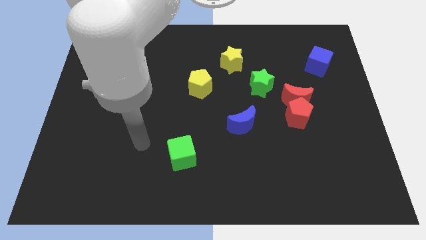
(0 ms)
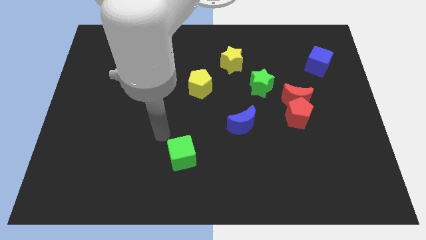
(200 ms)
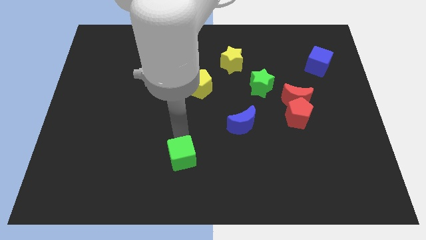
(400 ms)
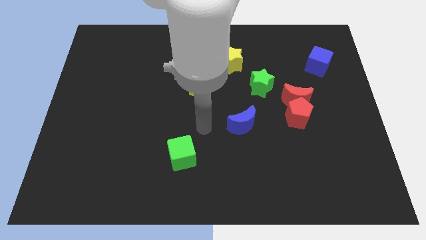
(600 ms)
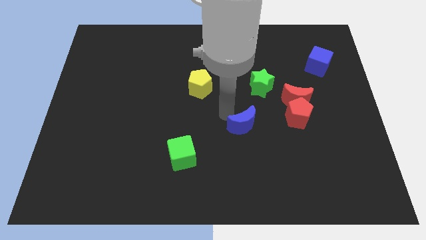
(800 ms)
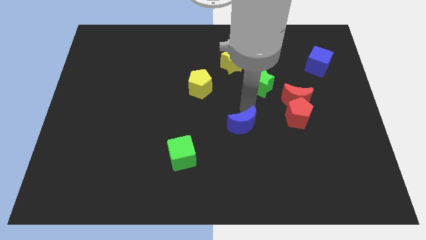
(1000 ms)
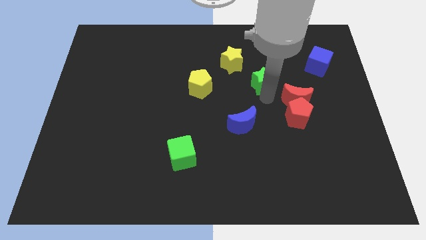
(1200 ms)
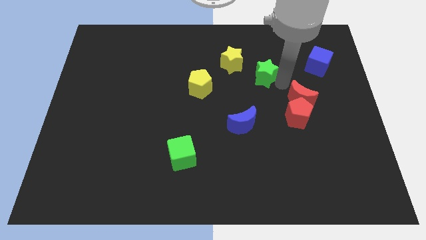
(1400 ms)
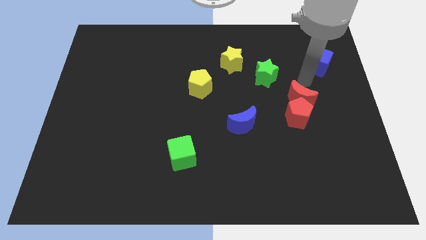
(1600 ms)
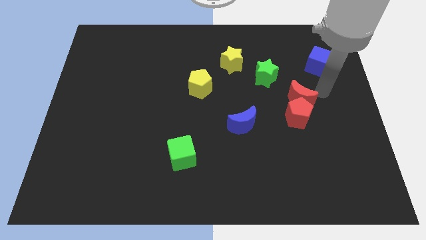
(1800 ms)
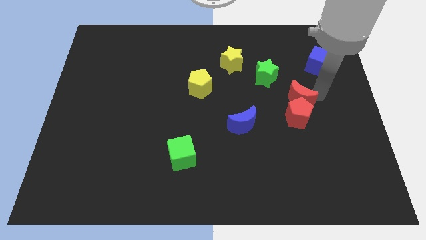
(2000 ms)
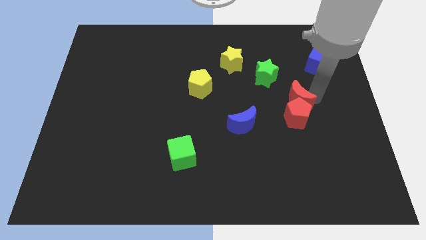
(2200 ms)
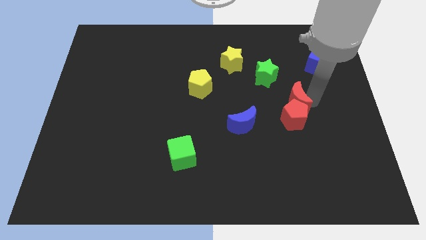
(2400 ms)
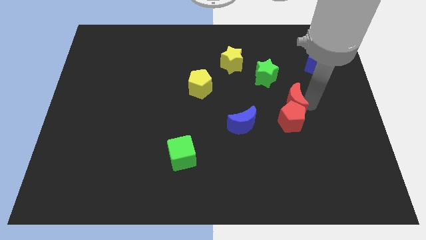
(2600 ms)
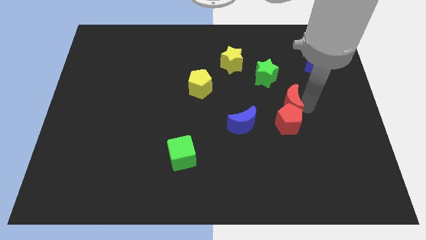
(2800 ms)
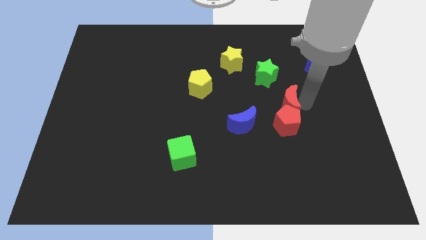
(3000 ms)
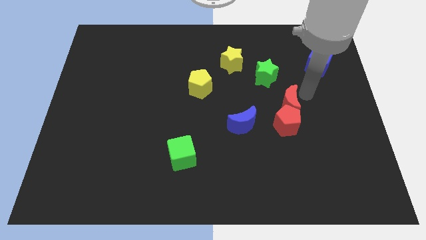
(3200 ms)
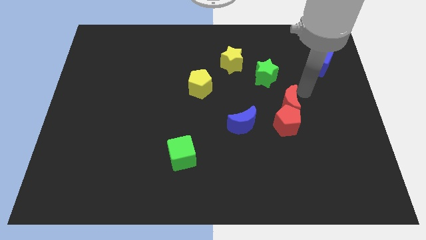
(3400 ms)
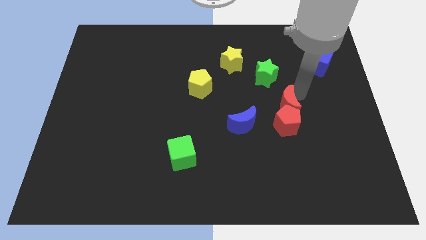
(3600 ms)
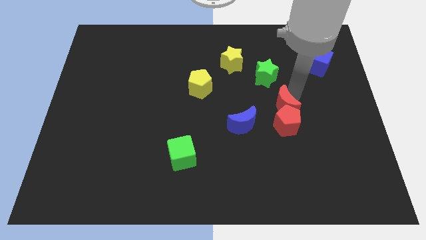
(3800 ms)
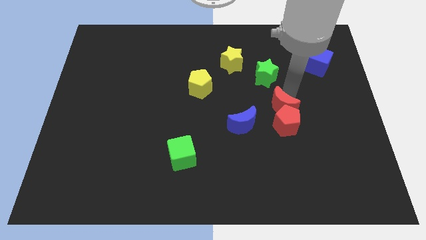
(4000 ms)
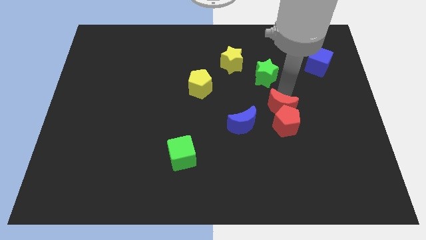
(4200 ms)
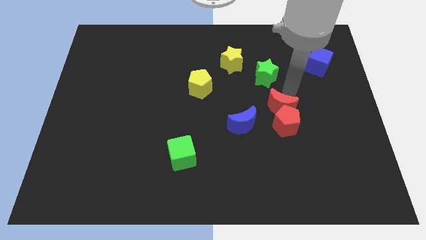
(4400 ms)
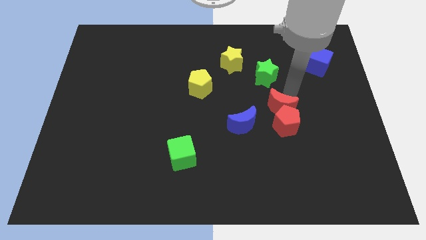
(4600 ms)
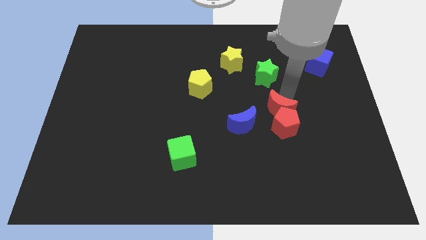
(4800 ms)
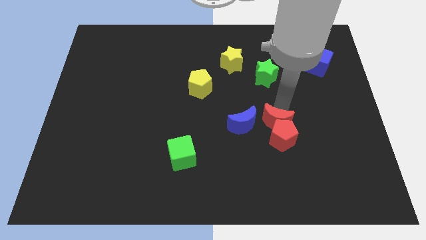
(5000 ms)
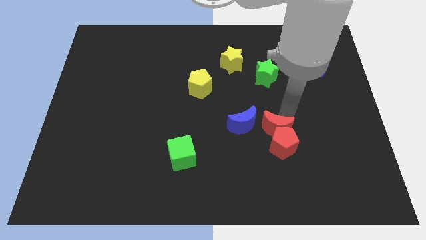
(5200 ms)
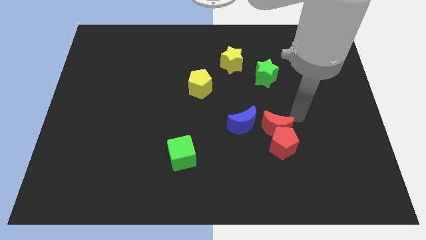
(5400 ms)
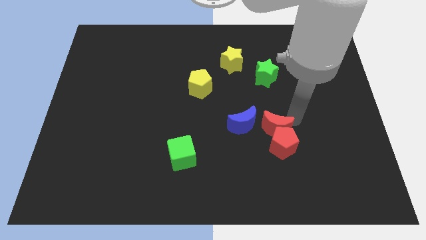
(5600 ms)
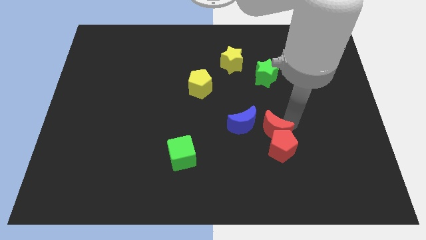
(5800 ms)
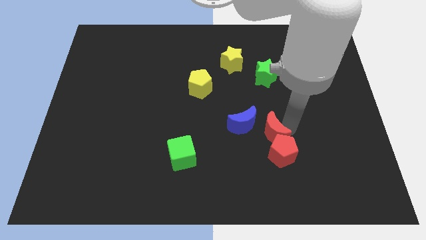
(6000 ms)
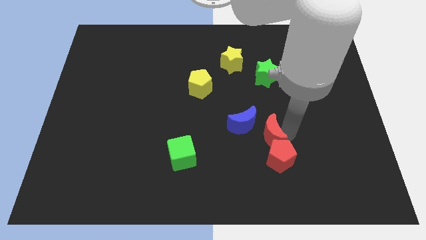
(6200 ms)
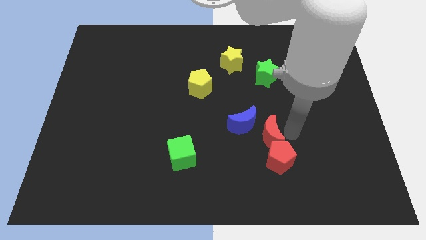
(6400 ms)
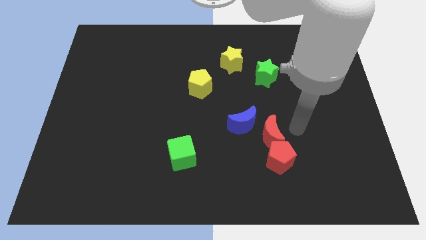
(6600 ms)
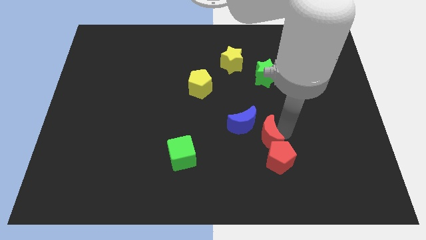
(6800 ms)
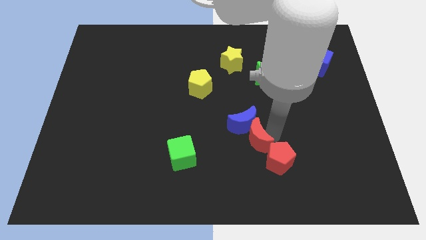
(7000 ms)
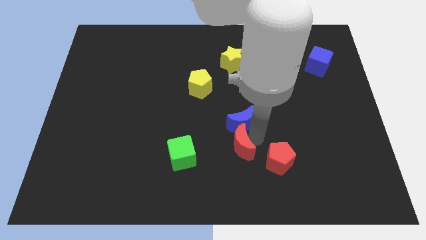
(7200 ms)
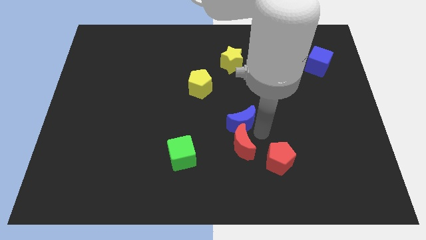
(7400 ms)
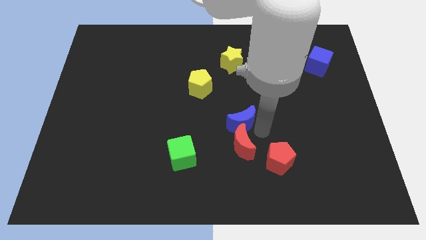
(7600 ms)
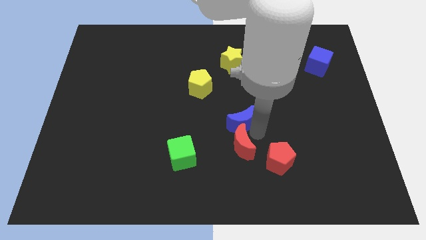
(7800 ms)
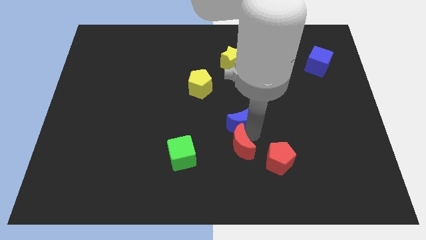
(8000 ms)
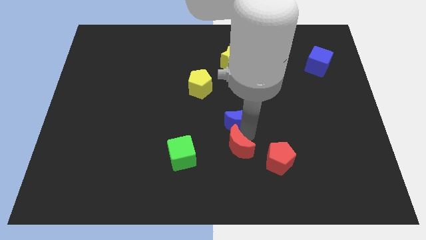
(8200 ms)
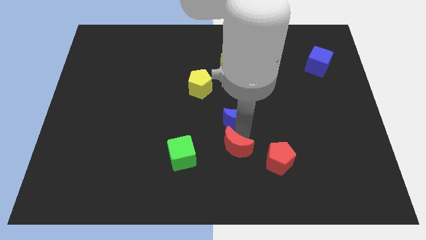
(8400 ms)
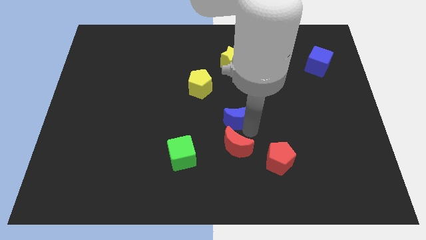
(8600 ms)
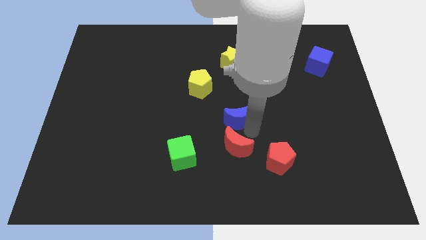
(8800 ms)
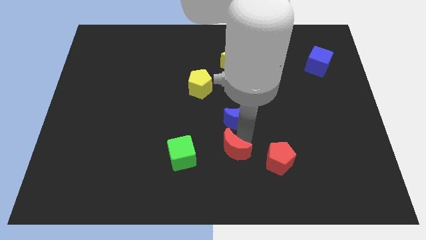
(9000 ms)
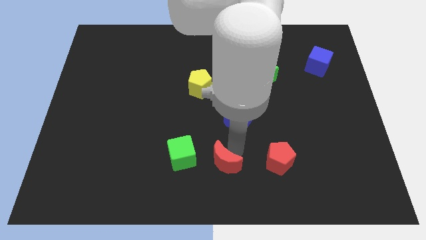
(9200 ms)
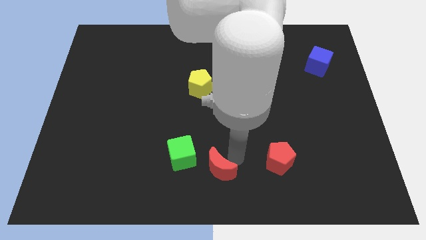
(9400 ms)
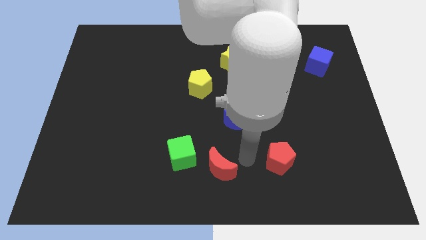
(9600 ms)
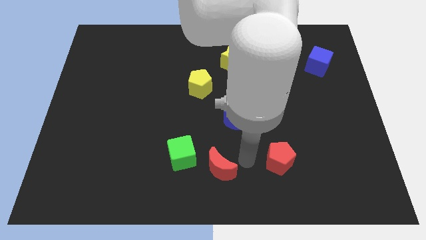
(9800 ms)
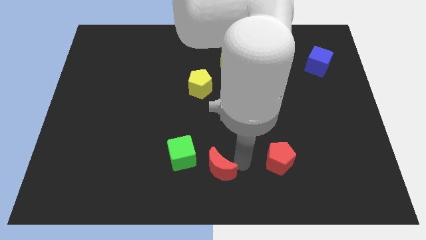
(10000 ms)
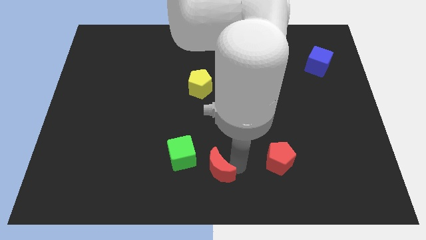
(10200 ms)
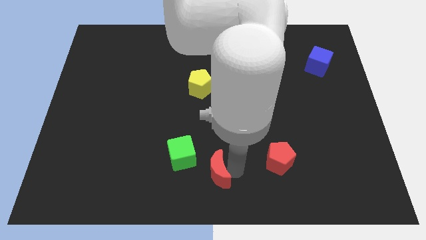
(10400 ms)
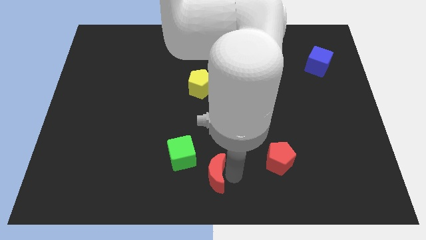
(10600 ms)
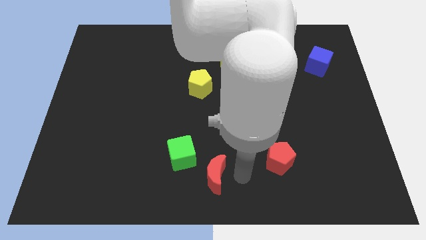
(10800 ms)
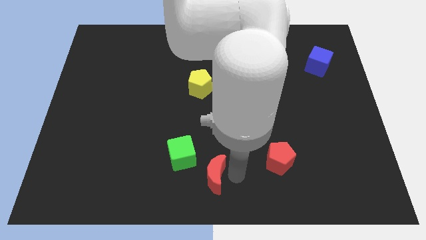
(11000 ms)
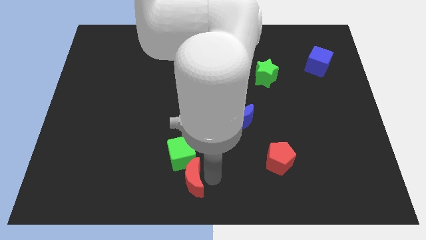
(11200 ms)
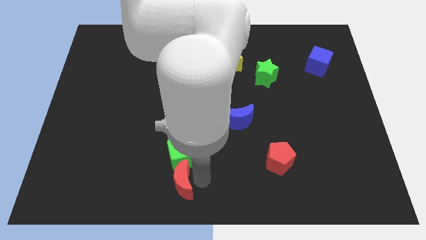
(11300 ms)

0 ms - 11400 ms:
slide the red moon diagonally down and to the left of the green cube

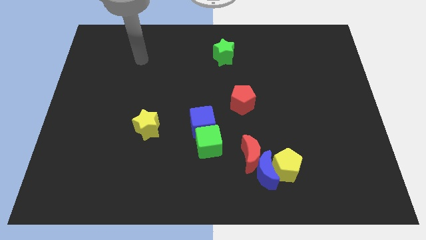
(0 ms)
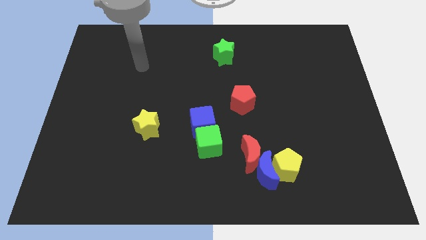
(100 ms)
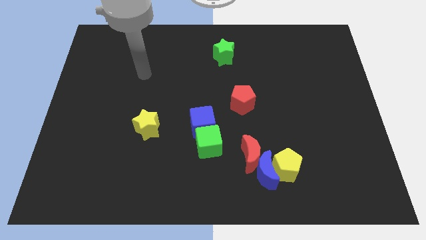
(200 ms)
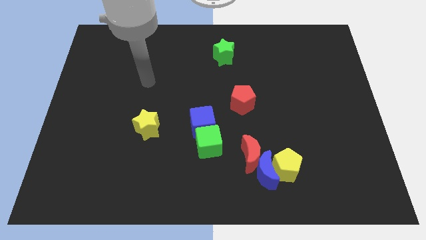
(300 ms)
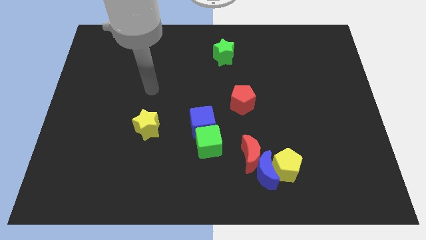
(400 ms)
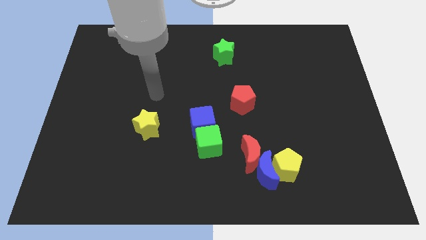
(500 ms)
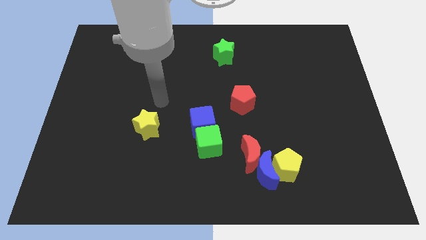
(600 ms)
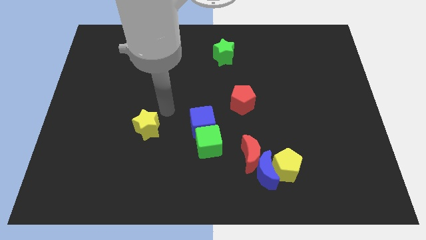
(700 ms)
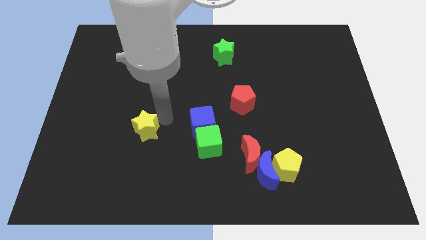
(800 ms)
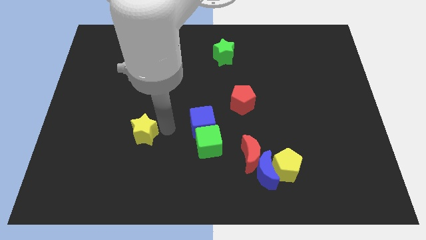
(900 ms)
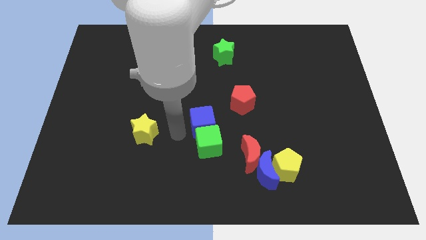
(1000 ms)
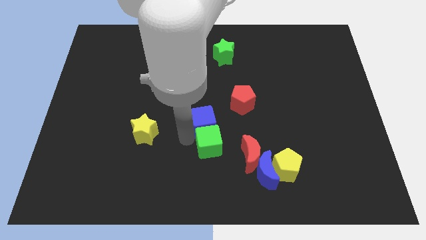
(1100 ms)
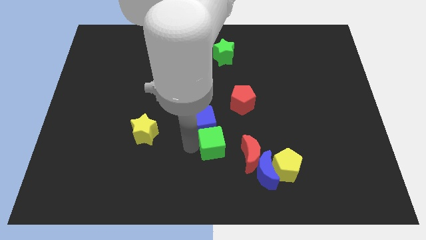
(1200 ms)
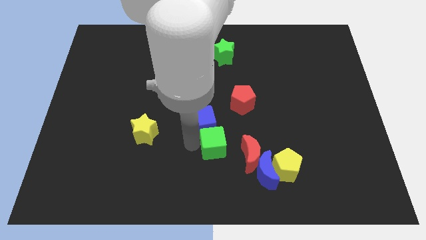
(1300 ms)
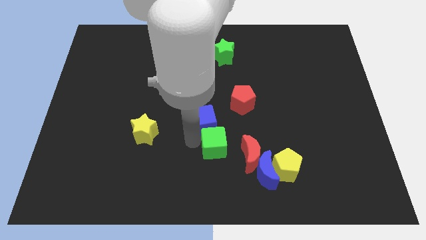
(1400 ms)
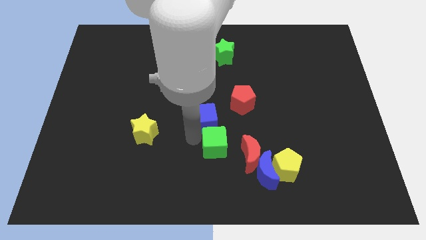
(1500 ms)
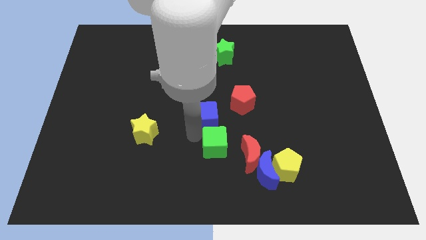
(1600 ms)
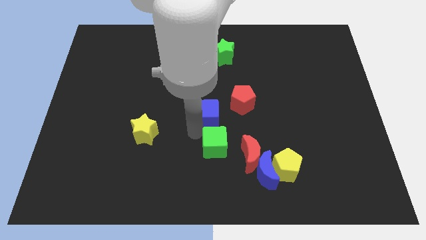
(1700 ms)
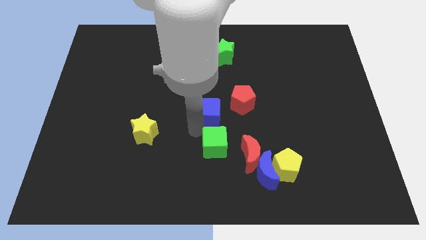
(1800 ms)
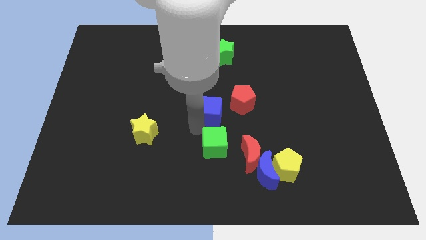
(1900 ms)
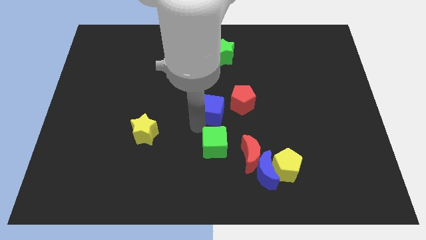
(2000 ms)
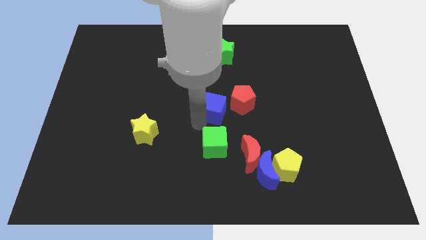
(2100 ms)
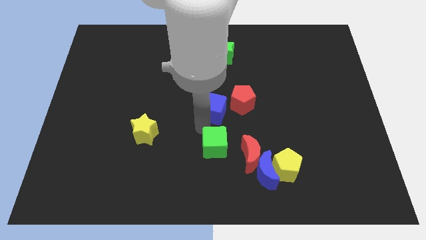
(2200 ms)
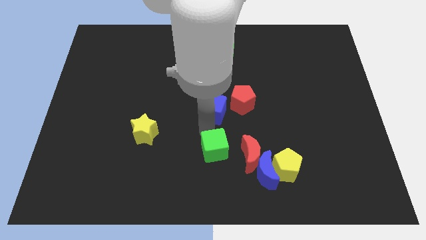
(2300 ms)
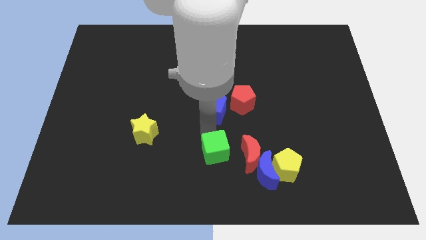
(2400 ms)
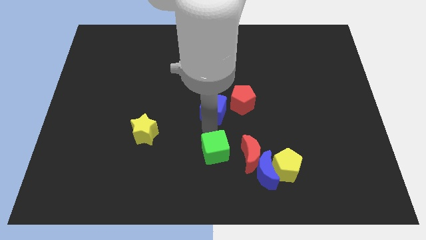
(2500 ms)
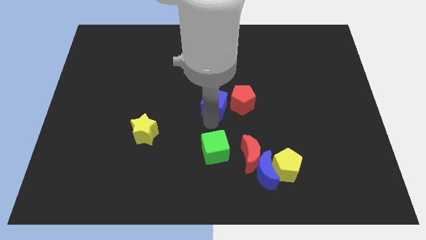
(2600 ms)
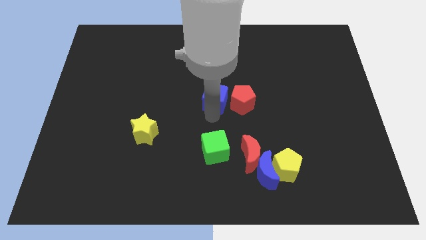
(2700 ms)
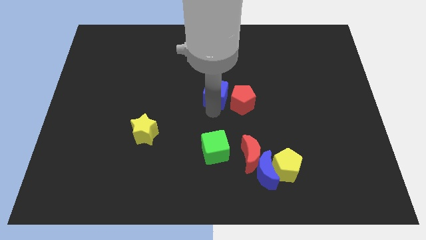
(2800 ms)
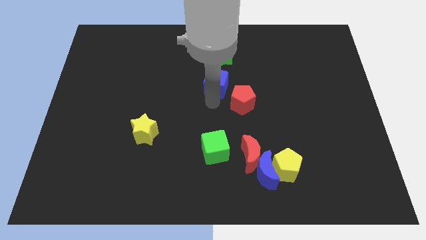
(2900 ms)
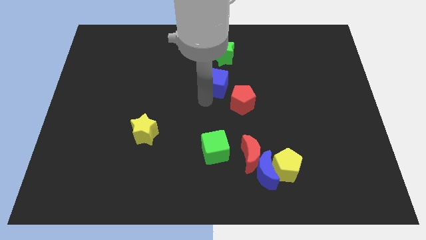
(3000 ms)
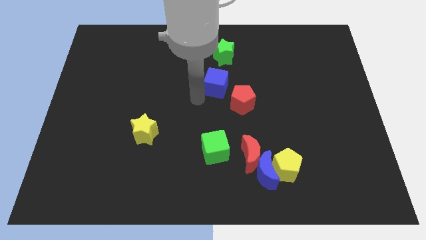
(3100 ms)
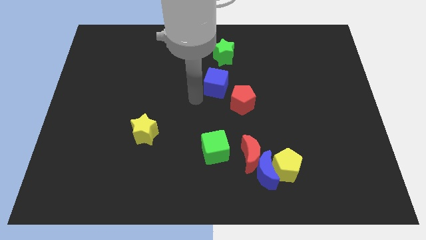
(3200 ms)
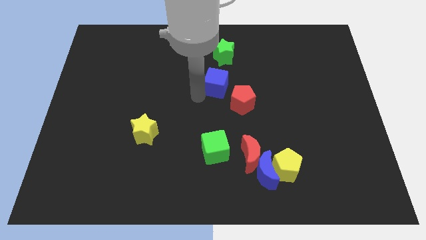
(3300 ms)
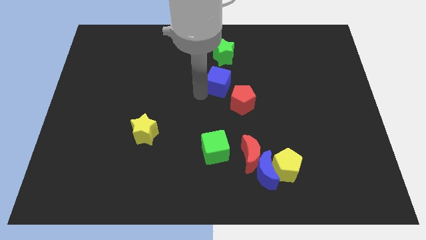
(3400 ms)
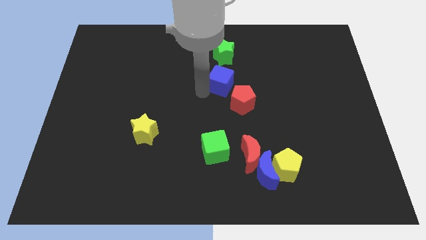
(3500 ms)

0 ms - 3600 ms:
put the blue cube above the red pentagon
